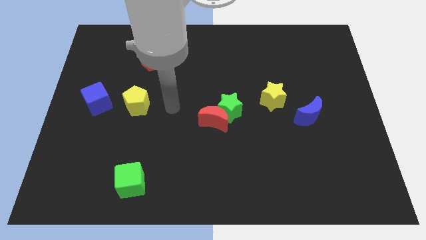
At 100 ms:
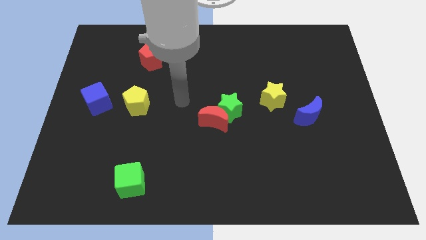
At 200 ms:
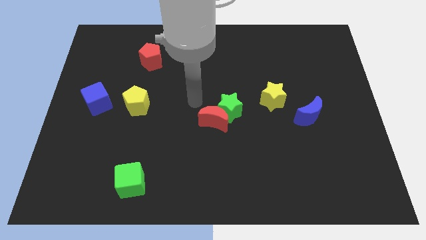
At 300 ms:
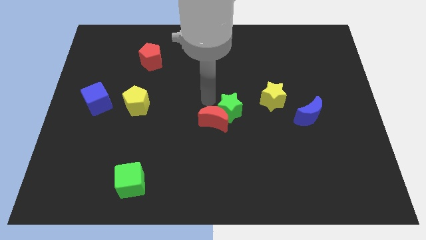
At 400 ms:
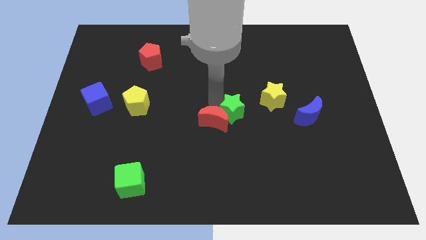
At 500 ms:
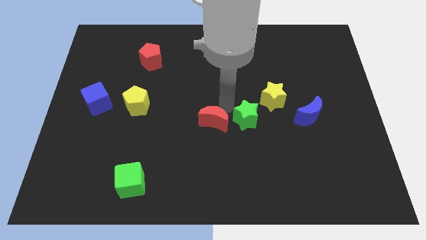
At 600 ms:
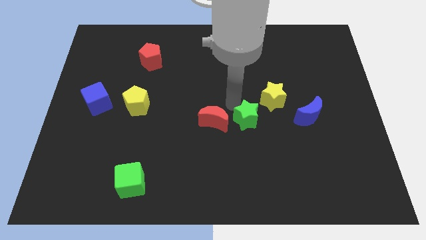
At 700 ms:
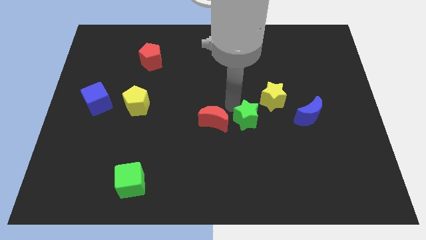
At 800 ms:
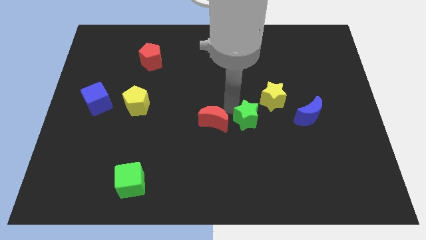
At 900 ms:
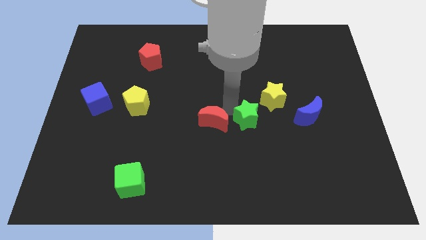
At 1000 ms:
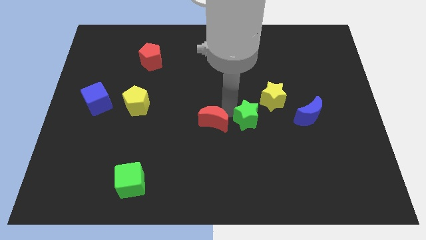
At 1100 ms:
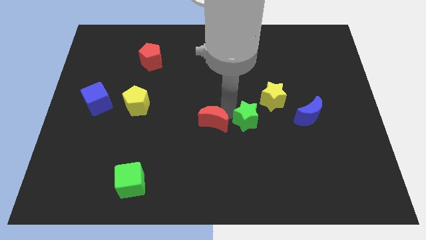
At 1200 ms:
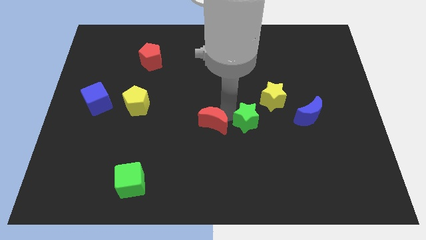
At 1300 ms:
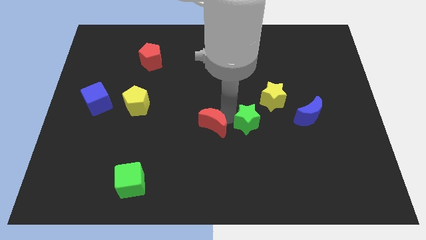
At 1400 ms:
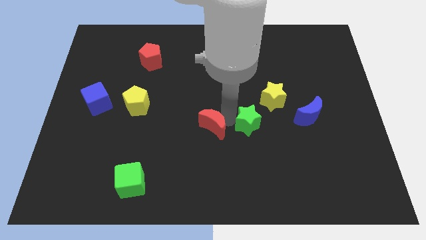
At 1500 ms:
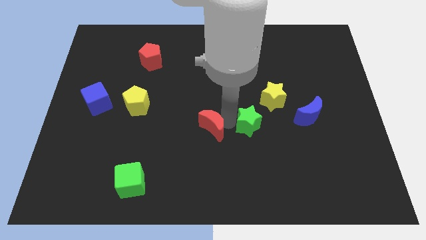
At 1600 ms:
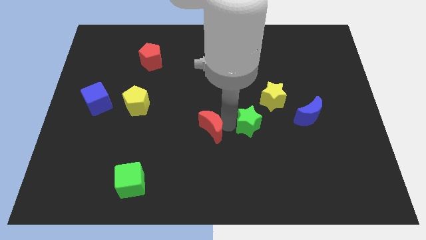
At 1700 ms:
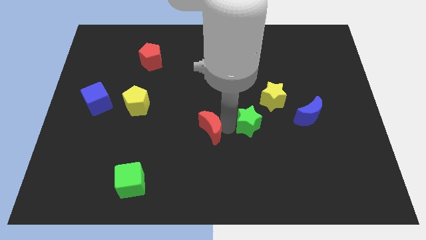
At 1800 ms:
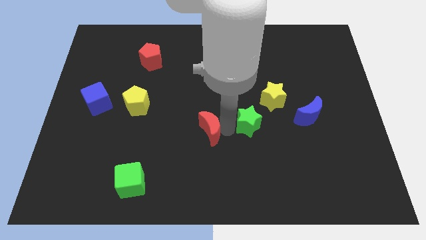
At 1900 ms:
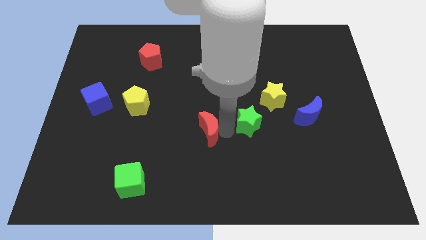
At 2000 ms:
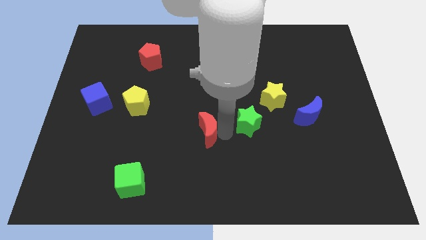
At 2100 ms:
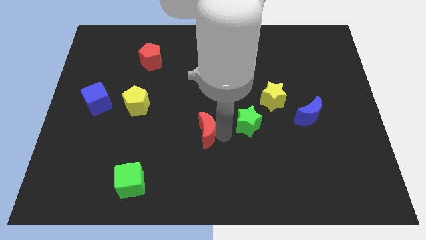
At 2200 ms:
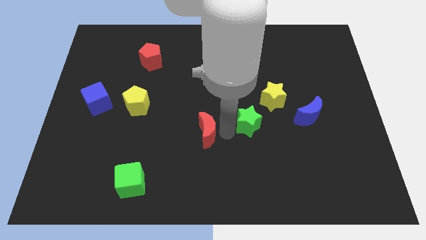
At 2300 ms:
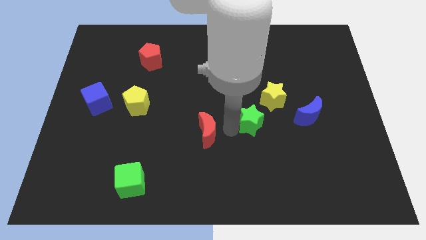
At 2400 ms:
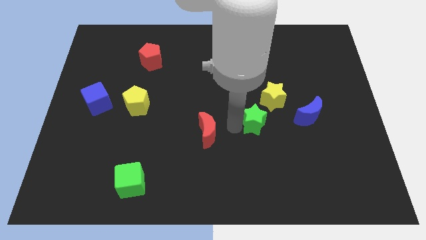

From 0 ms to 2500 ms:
pull the red moon apart from the green star

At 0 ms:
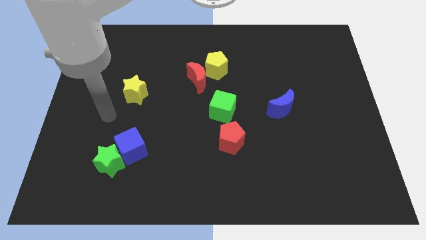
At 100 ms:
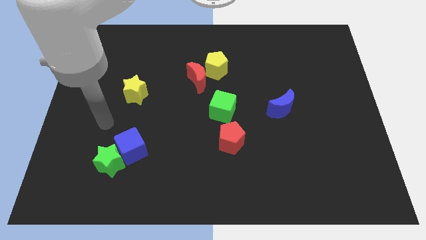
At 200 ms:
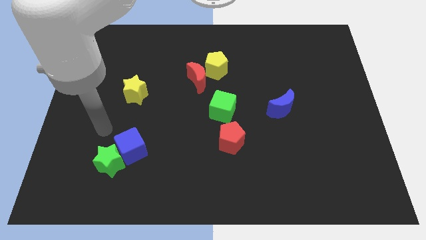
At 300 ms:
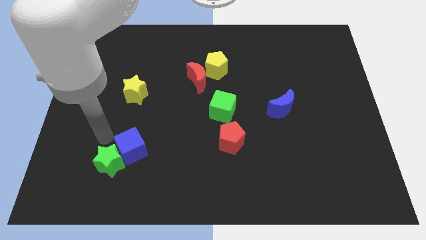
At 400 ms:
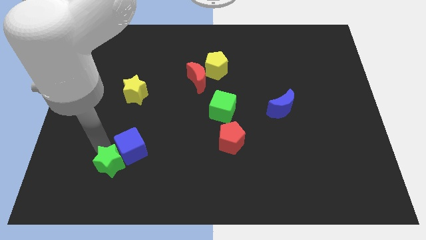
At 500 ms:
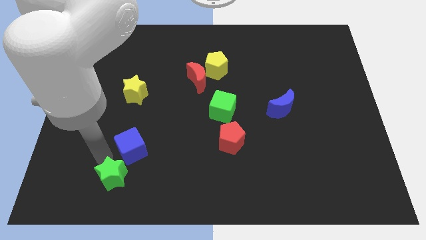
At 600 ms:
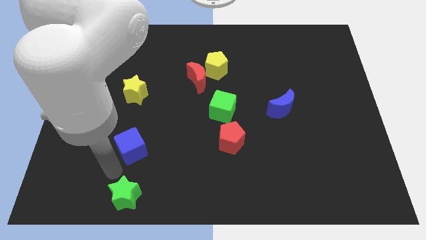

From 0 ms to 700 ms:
separate the blue cube from the green star

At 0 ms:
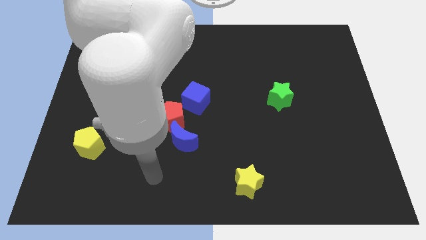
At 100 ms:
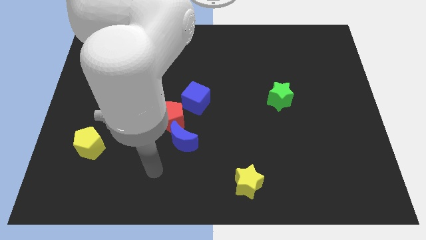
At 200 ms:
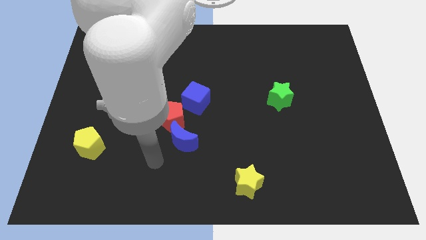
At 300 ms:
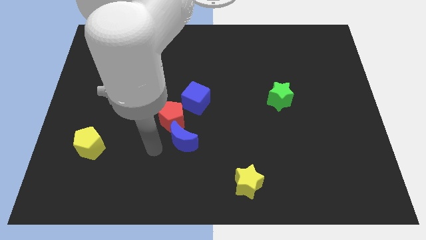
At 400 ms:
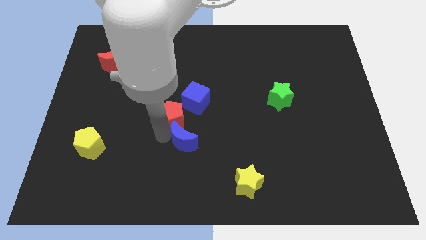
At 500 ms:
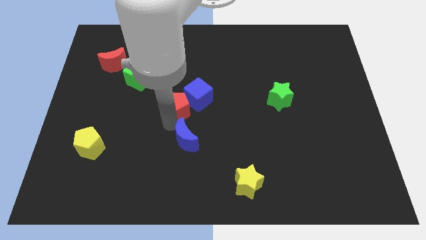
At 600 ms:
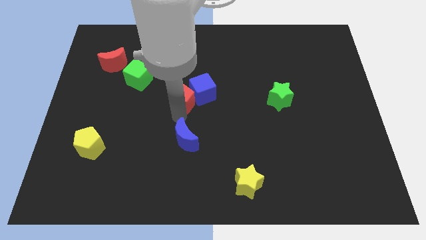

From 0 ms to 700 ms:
pull the blue moon apart from the red pentagon

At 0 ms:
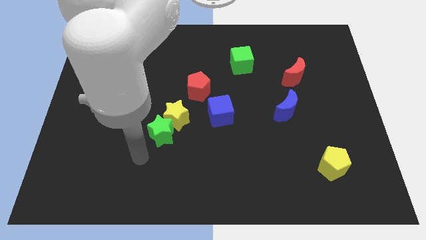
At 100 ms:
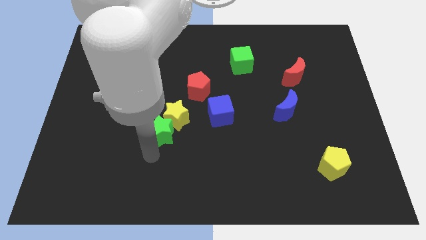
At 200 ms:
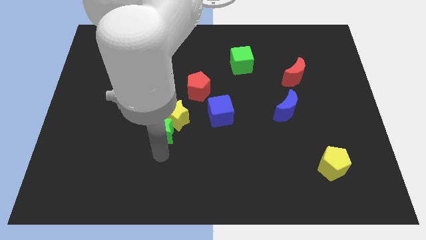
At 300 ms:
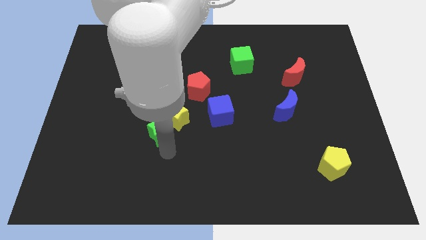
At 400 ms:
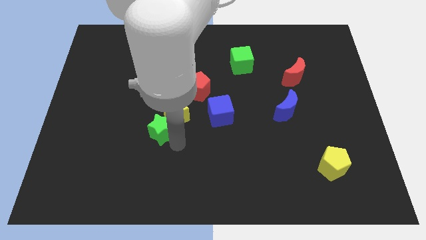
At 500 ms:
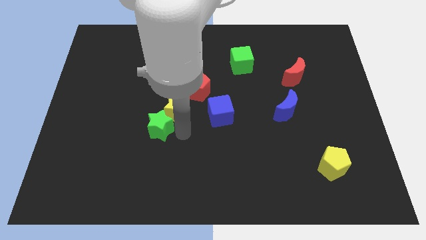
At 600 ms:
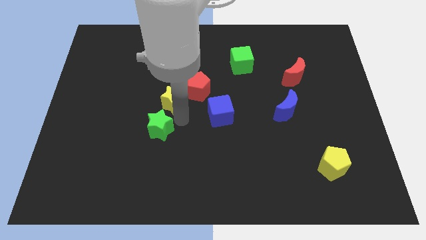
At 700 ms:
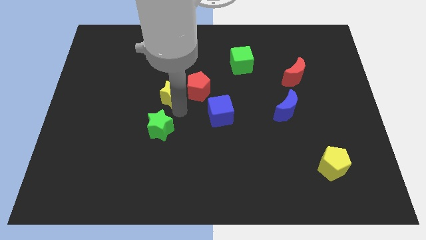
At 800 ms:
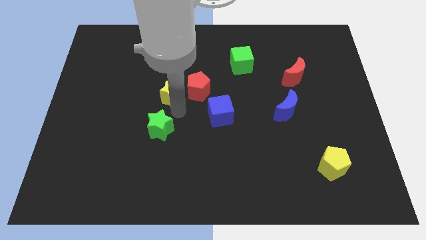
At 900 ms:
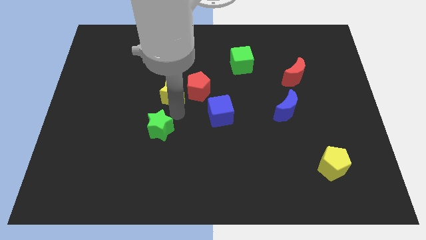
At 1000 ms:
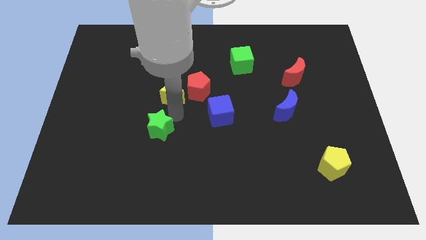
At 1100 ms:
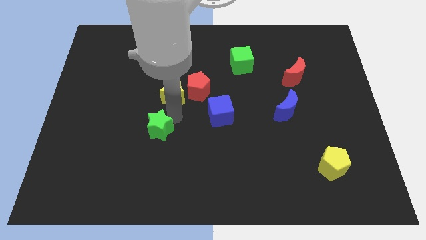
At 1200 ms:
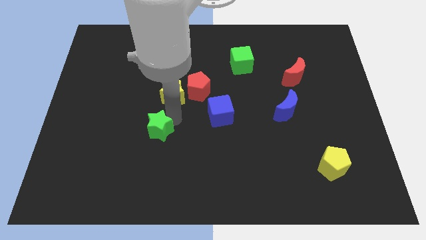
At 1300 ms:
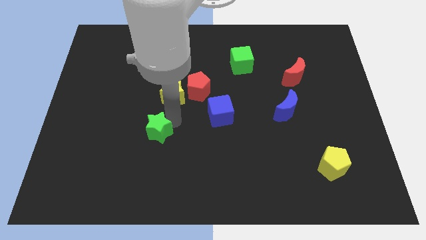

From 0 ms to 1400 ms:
move the green star away from the yellow star

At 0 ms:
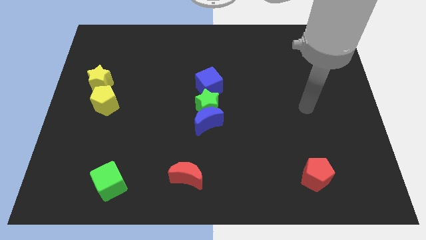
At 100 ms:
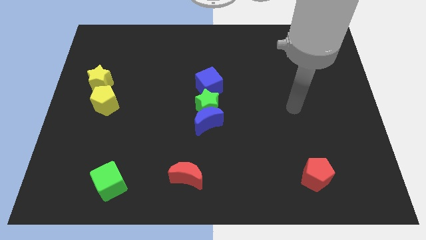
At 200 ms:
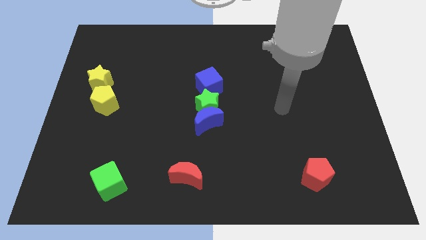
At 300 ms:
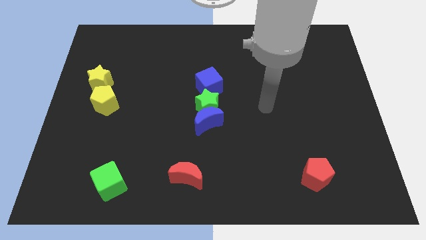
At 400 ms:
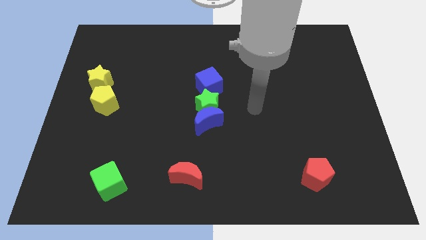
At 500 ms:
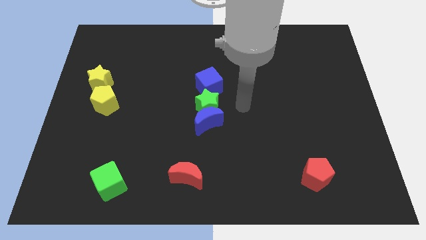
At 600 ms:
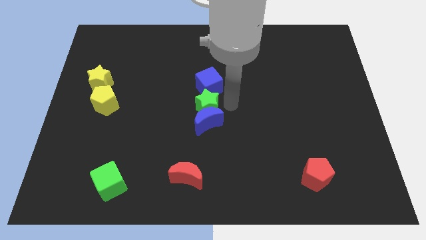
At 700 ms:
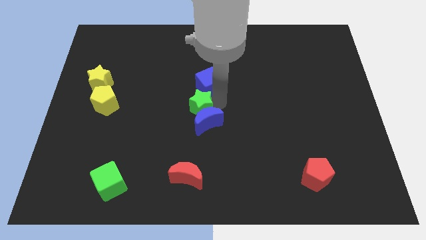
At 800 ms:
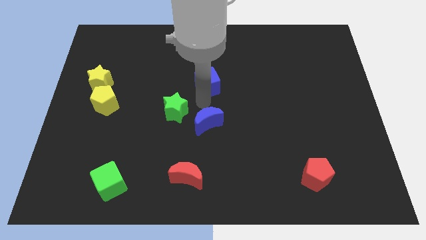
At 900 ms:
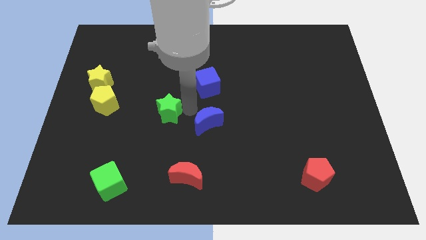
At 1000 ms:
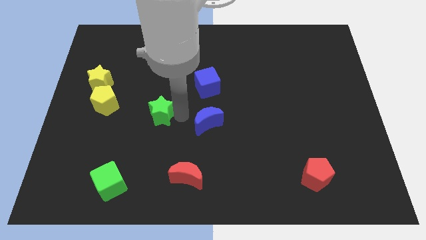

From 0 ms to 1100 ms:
pull the blue moon apart from the green star

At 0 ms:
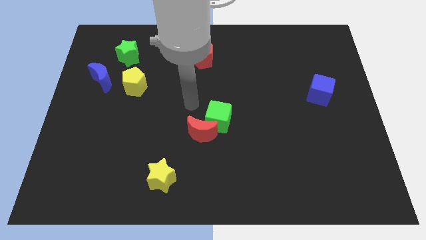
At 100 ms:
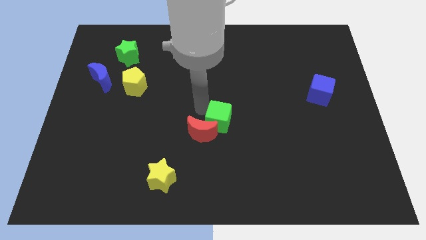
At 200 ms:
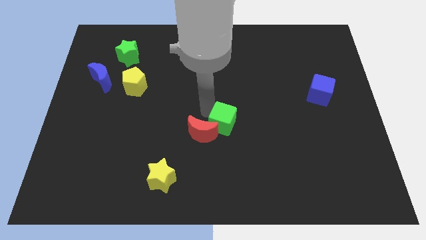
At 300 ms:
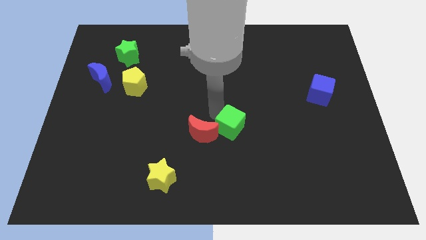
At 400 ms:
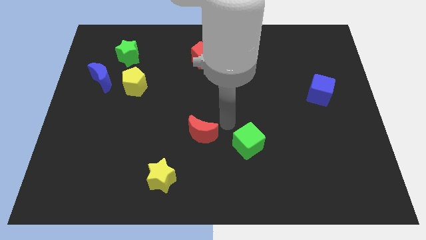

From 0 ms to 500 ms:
move the red moon away from the green cube

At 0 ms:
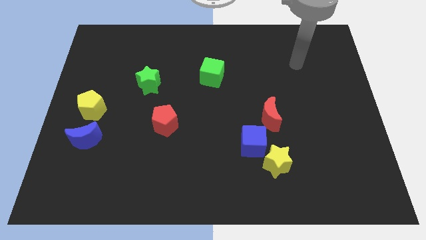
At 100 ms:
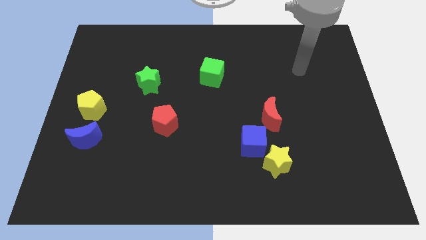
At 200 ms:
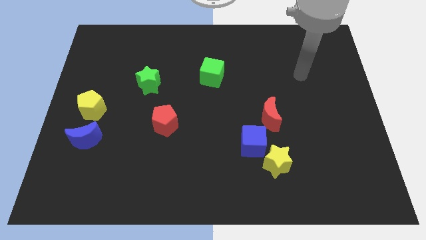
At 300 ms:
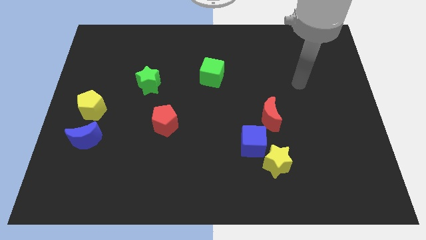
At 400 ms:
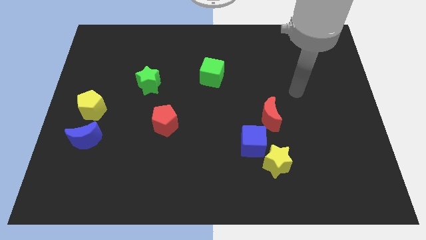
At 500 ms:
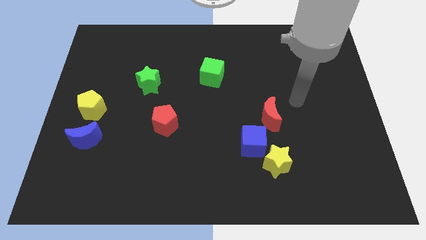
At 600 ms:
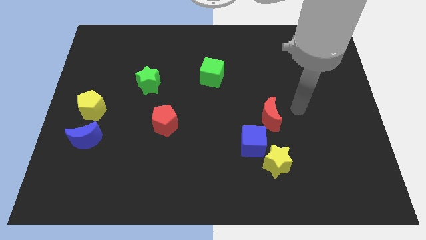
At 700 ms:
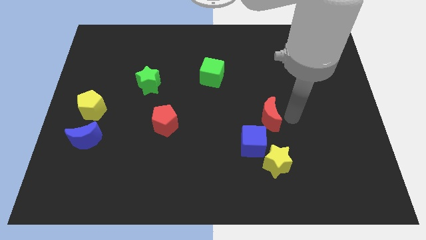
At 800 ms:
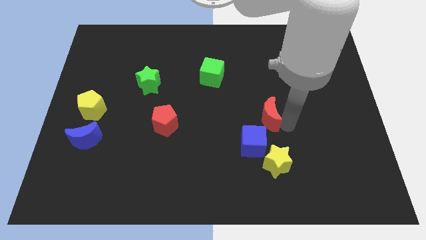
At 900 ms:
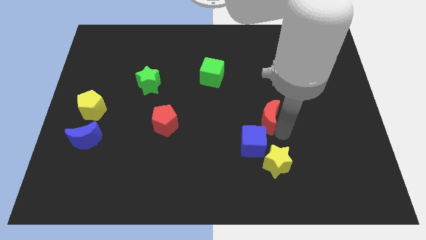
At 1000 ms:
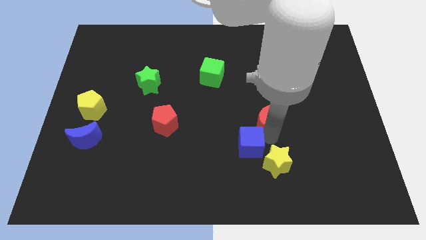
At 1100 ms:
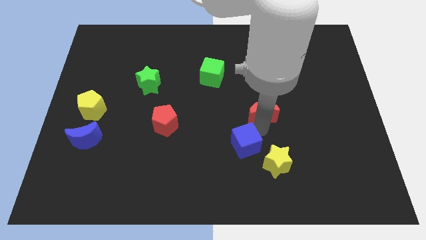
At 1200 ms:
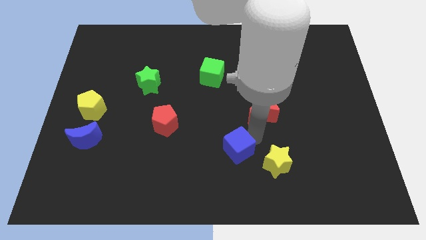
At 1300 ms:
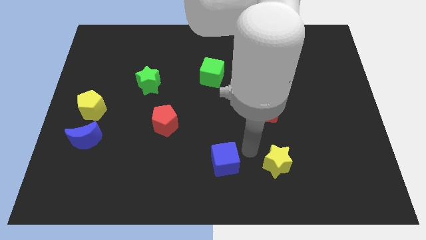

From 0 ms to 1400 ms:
move the yellow star away from the blue cube

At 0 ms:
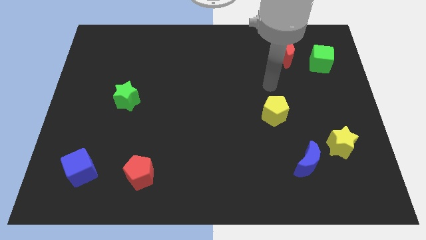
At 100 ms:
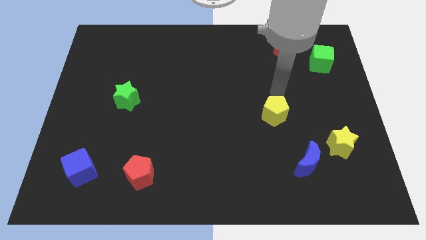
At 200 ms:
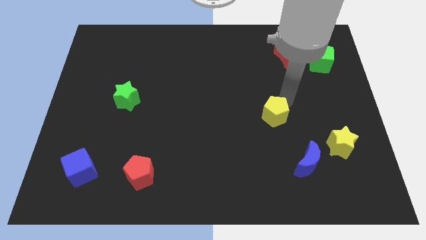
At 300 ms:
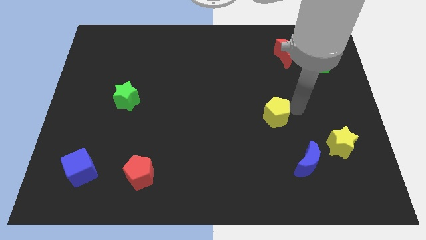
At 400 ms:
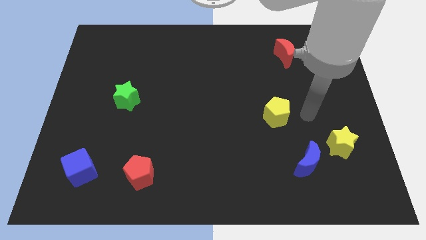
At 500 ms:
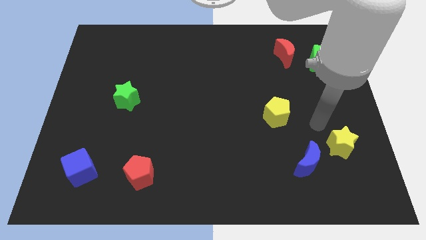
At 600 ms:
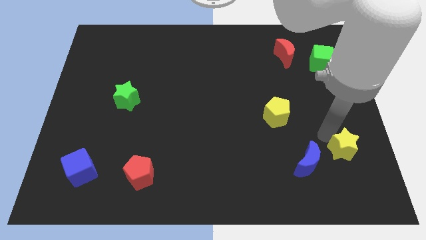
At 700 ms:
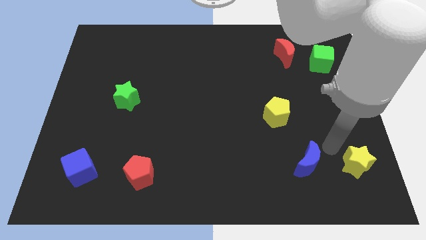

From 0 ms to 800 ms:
pull the blue moon apart from the yellow star
